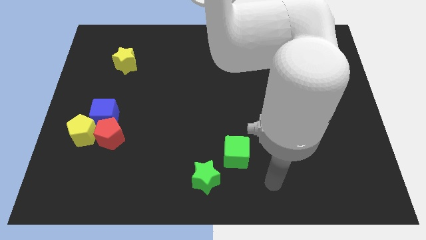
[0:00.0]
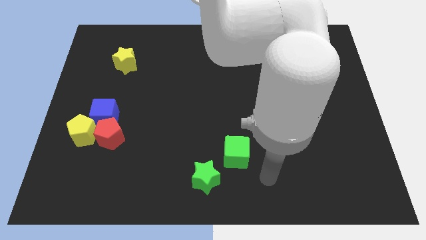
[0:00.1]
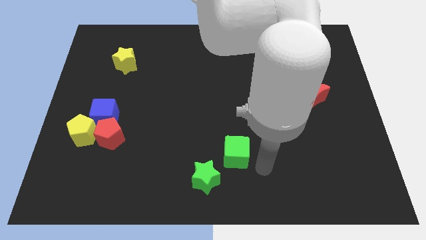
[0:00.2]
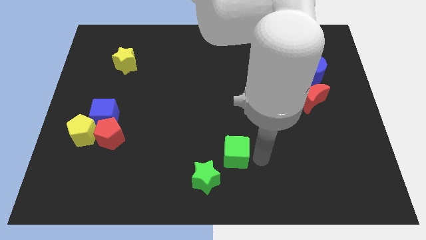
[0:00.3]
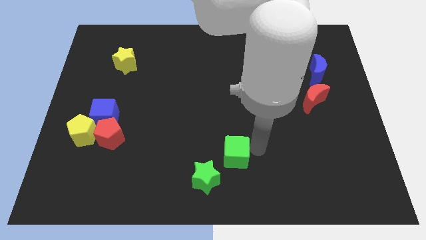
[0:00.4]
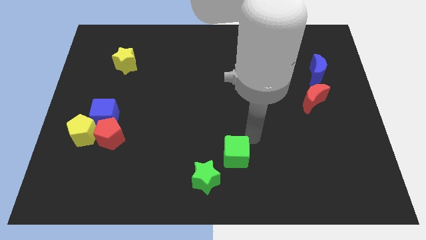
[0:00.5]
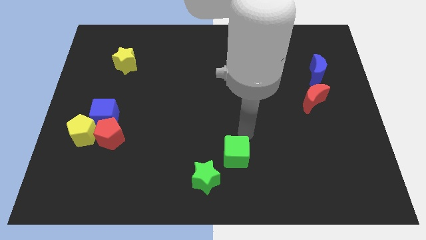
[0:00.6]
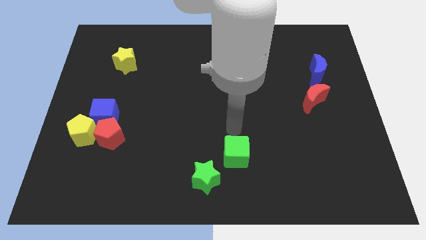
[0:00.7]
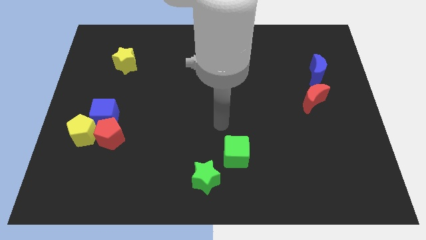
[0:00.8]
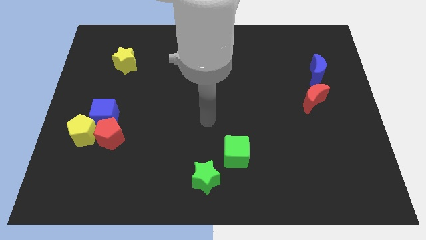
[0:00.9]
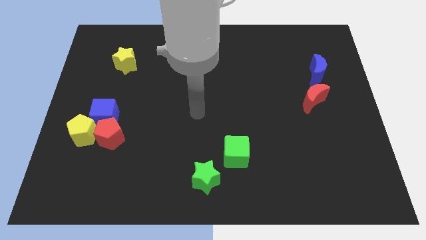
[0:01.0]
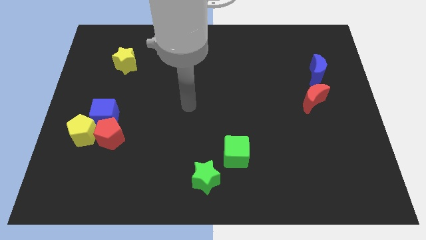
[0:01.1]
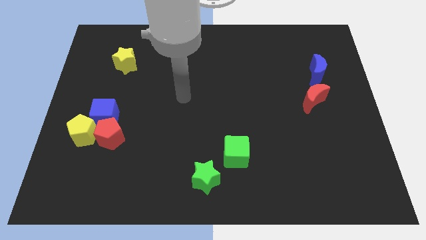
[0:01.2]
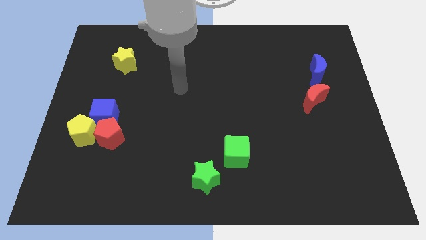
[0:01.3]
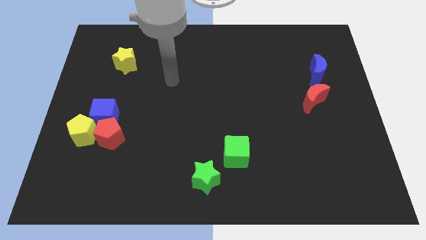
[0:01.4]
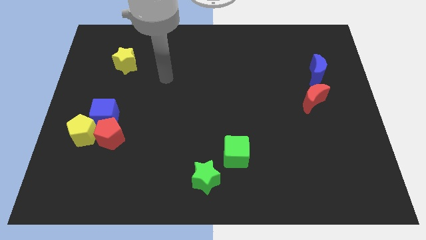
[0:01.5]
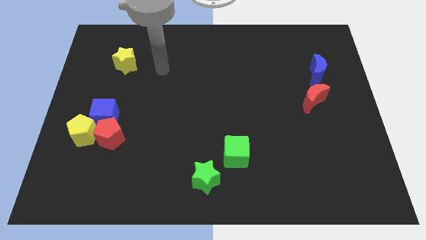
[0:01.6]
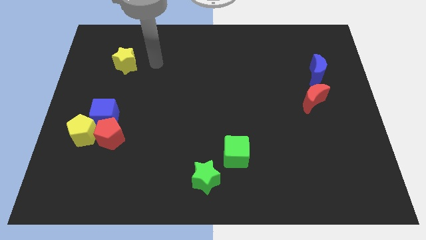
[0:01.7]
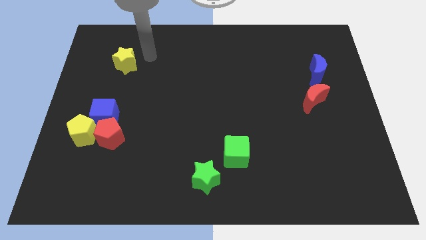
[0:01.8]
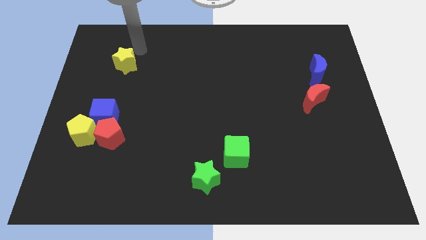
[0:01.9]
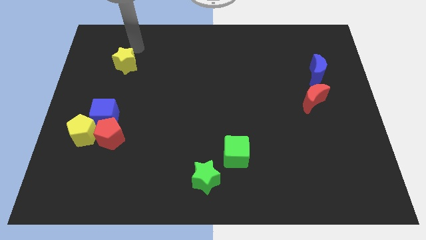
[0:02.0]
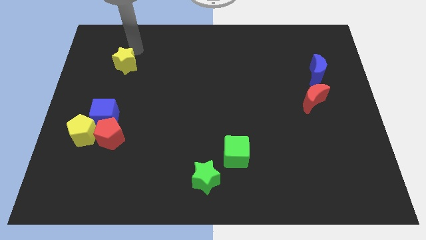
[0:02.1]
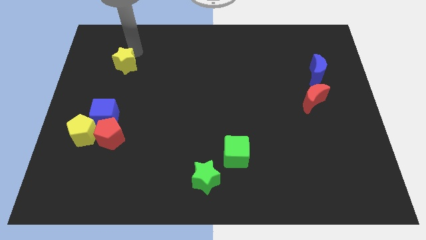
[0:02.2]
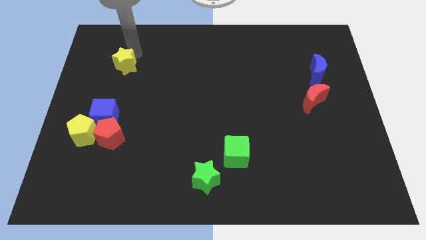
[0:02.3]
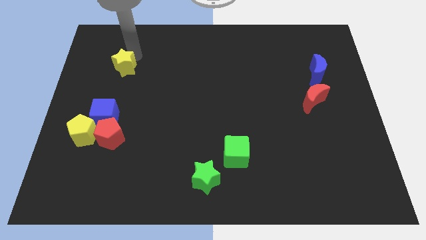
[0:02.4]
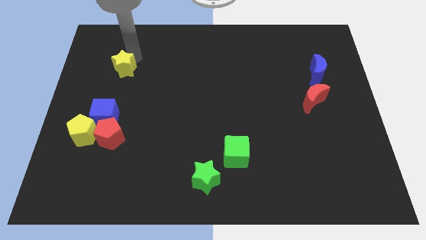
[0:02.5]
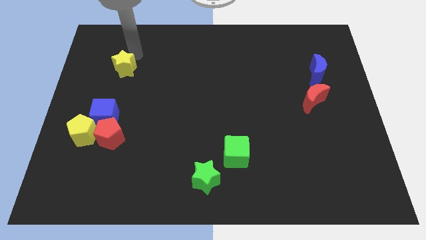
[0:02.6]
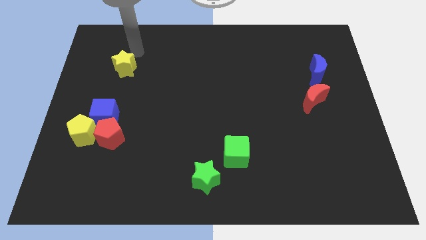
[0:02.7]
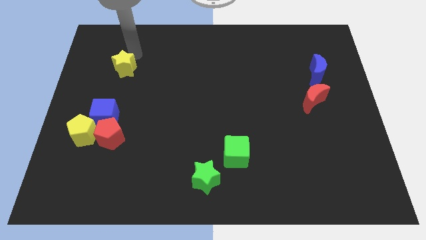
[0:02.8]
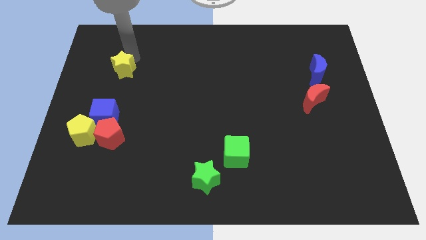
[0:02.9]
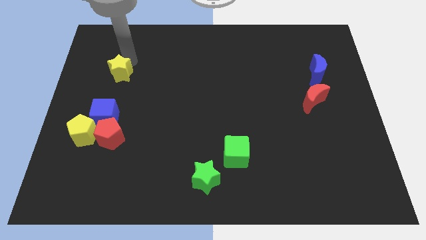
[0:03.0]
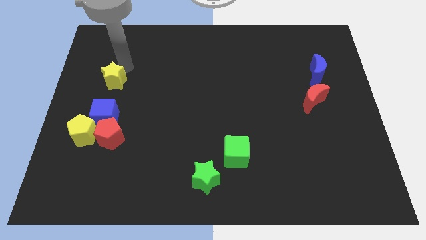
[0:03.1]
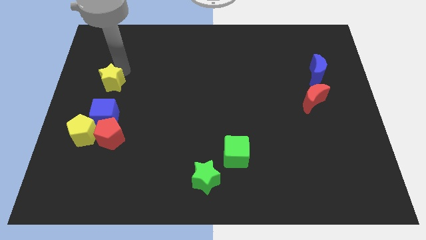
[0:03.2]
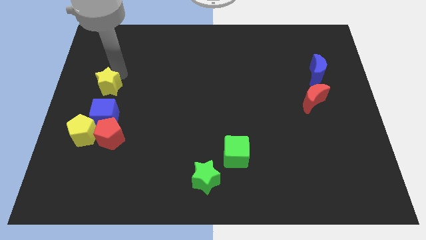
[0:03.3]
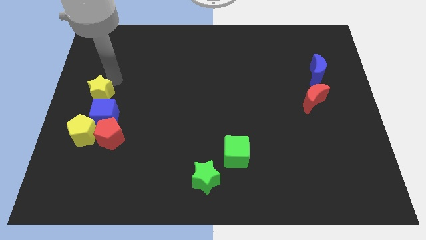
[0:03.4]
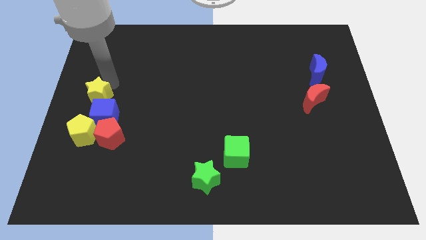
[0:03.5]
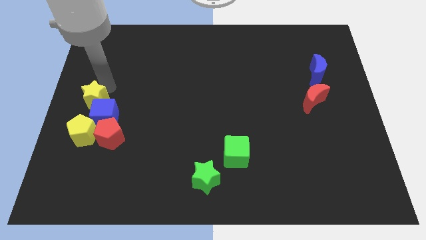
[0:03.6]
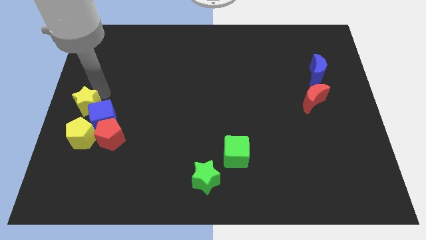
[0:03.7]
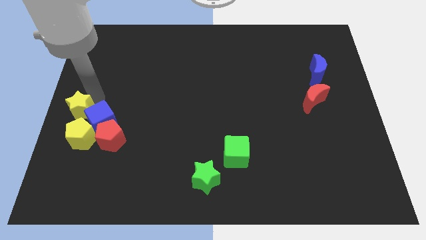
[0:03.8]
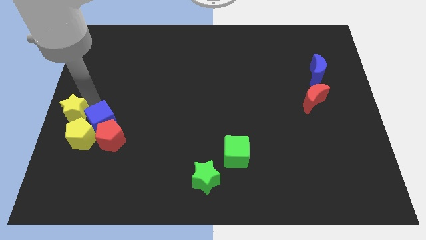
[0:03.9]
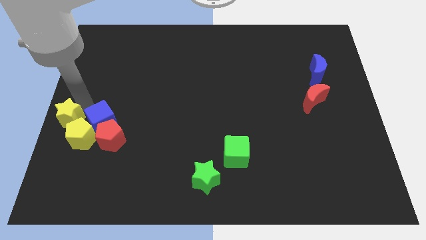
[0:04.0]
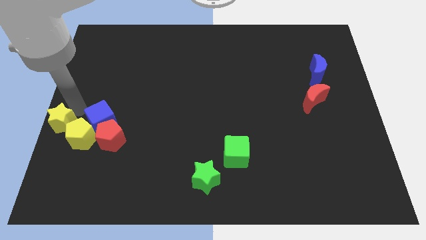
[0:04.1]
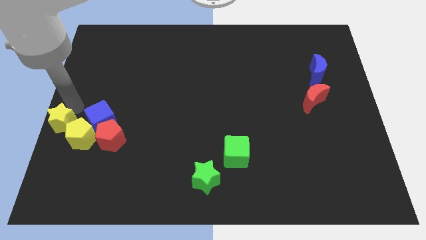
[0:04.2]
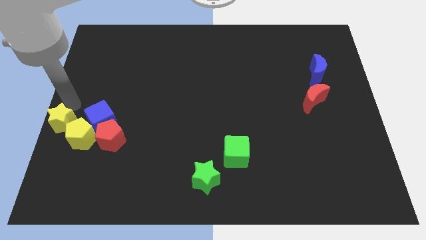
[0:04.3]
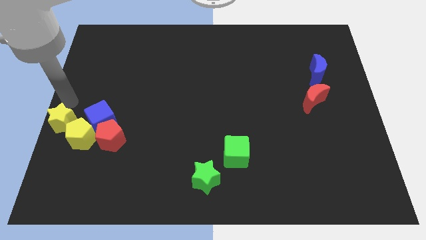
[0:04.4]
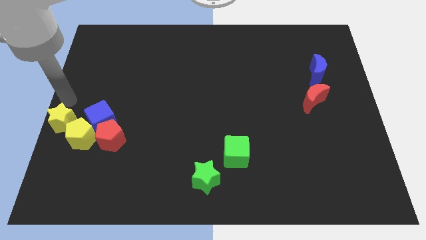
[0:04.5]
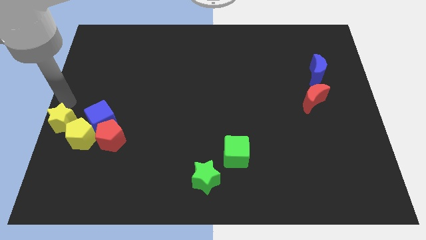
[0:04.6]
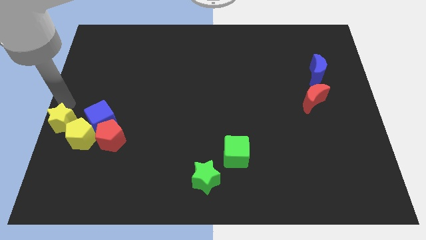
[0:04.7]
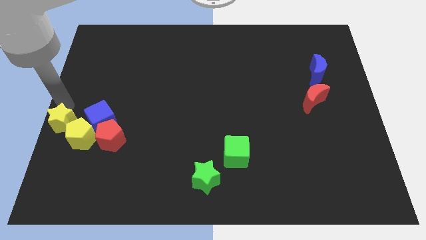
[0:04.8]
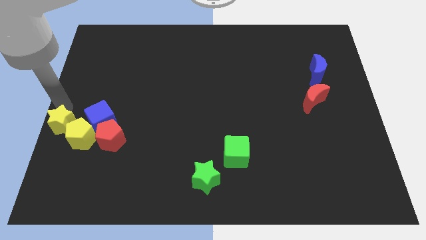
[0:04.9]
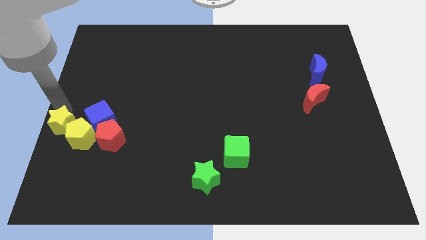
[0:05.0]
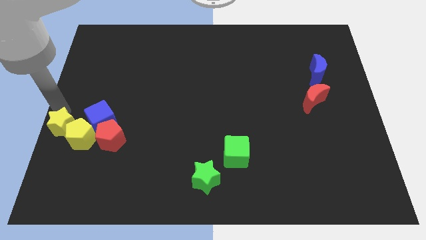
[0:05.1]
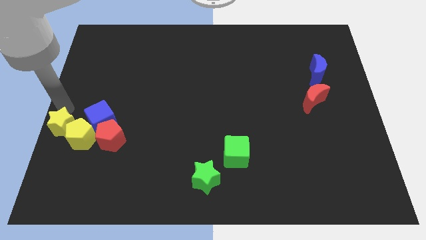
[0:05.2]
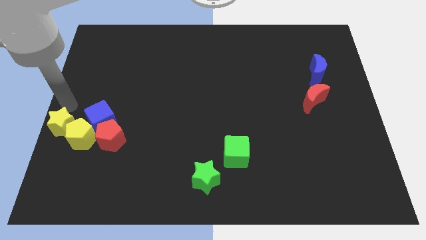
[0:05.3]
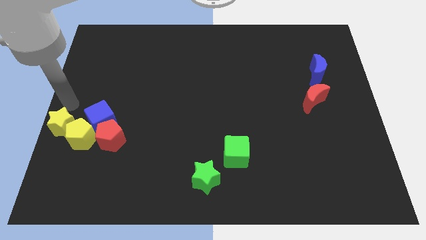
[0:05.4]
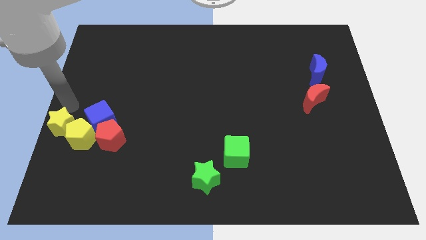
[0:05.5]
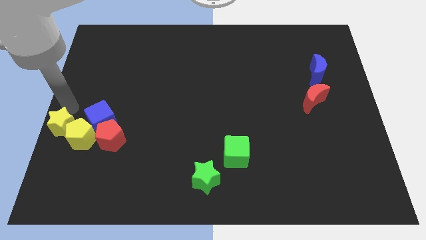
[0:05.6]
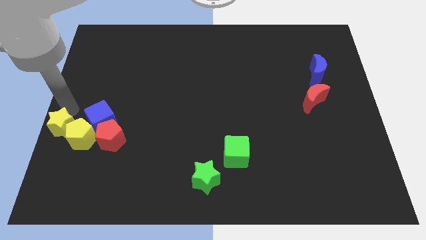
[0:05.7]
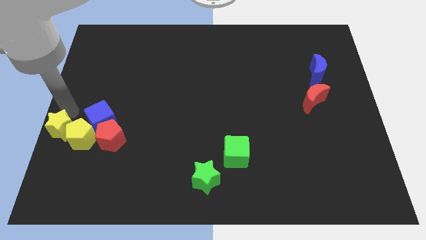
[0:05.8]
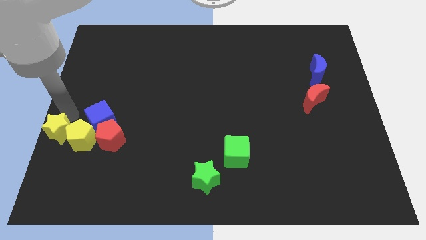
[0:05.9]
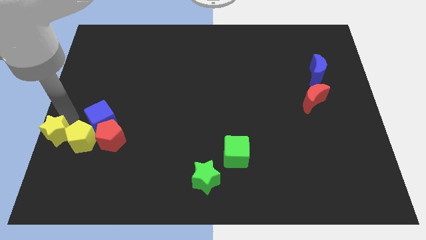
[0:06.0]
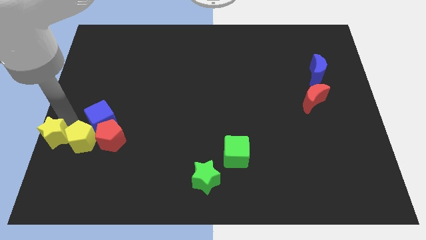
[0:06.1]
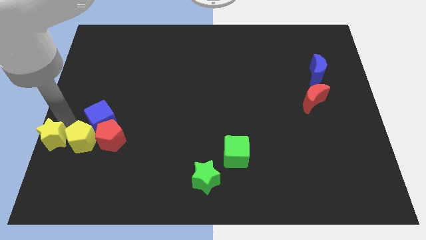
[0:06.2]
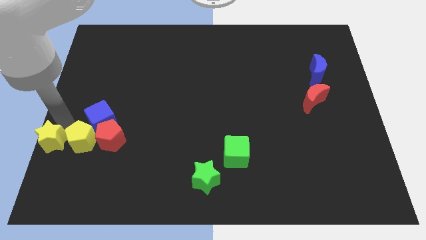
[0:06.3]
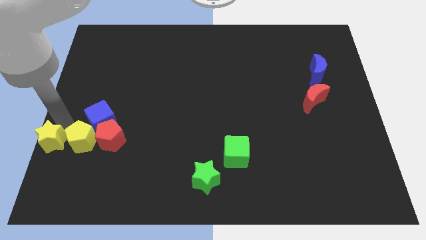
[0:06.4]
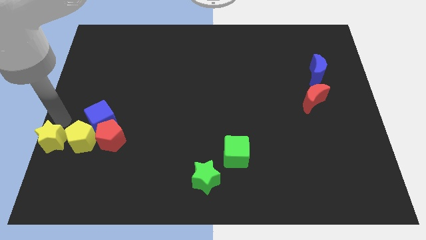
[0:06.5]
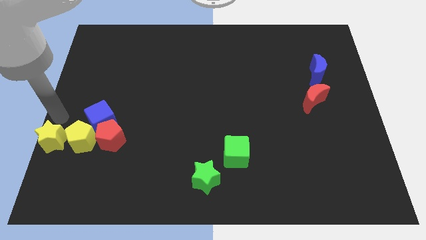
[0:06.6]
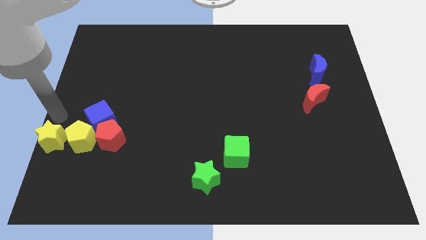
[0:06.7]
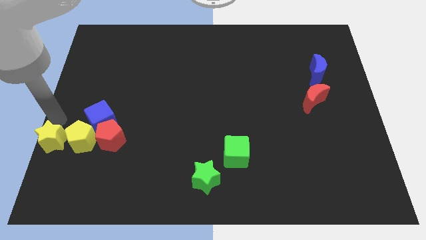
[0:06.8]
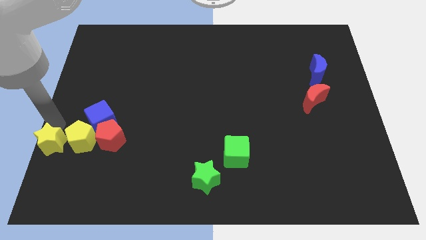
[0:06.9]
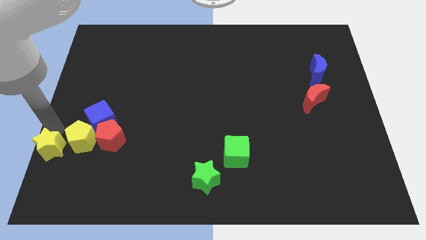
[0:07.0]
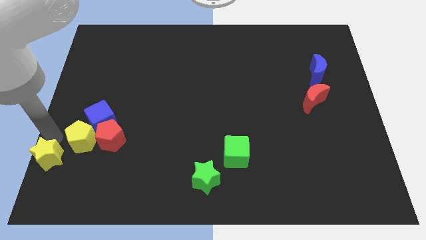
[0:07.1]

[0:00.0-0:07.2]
slide the yellow star to the bottom left
